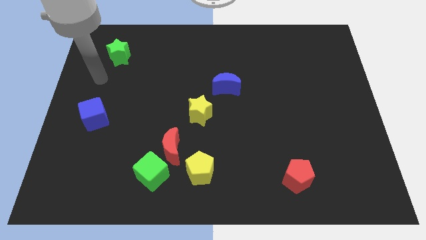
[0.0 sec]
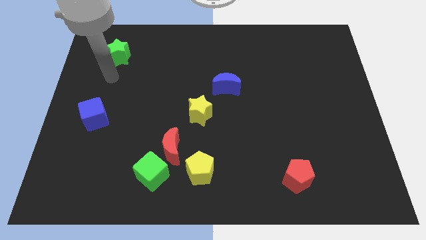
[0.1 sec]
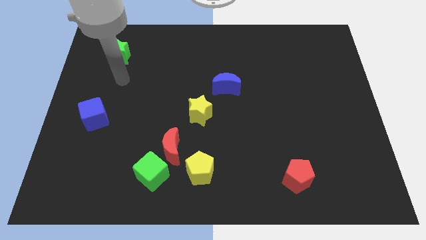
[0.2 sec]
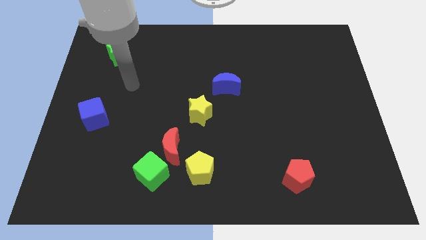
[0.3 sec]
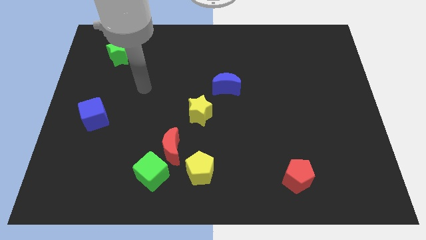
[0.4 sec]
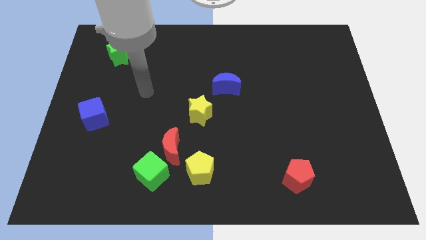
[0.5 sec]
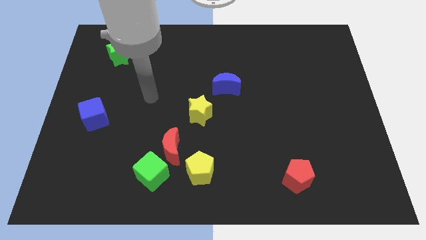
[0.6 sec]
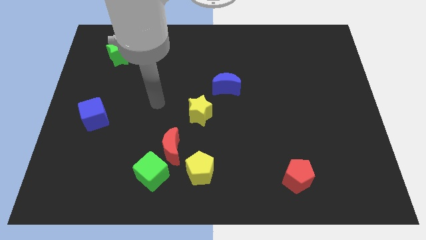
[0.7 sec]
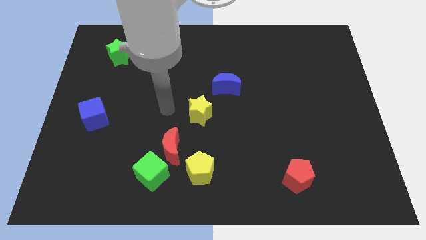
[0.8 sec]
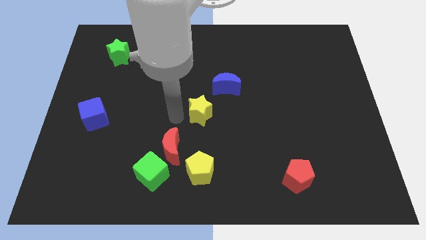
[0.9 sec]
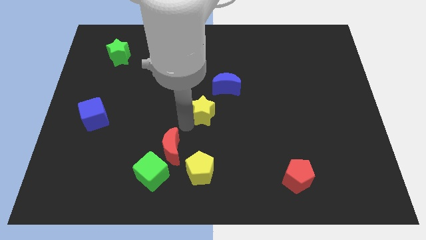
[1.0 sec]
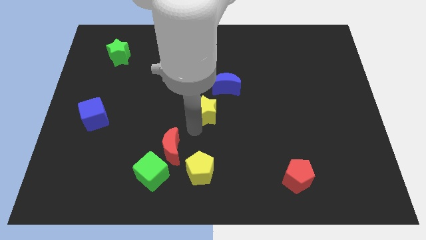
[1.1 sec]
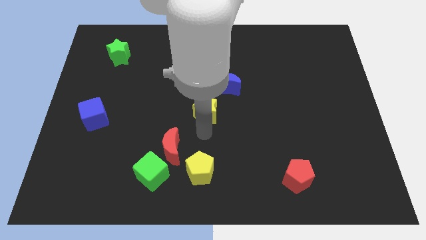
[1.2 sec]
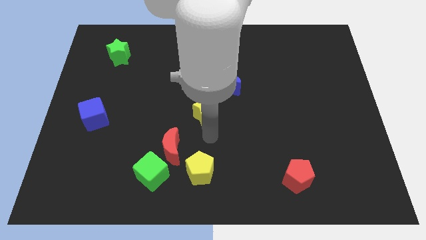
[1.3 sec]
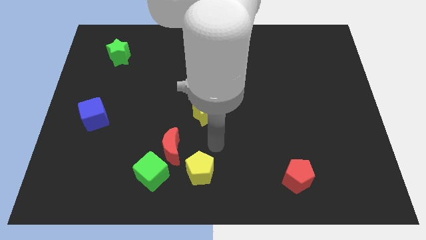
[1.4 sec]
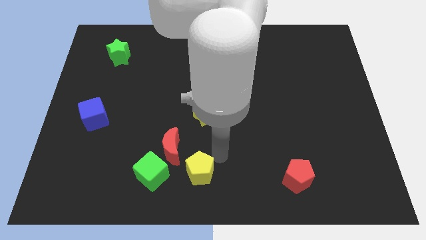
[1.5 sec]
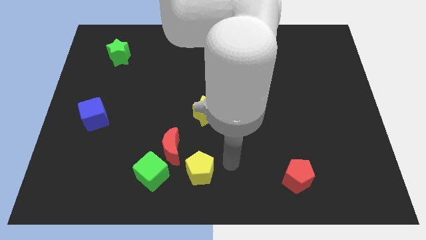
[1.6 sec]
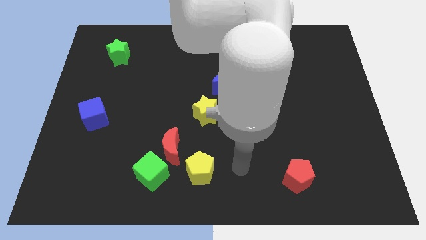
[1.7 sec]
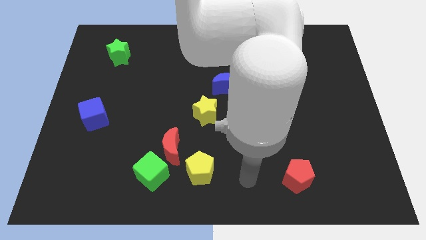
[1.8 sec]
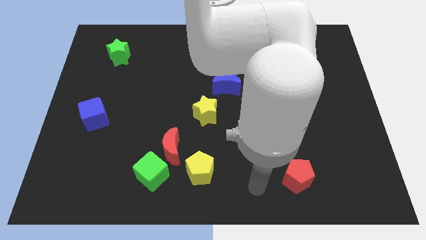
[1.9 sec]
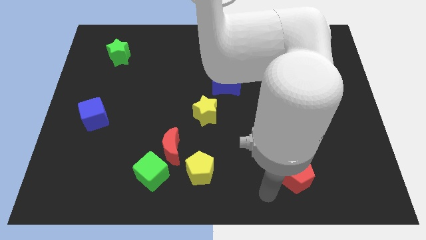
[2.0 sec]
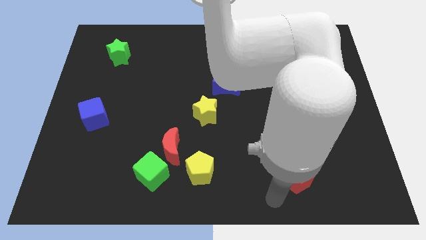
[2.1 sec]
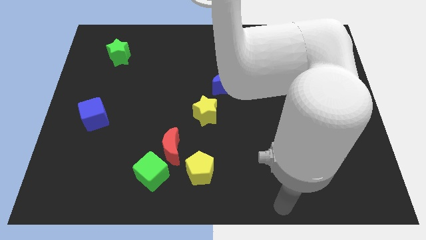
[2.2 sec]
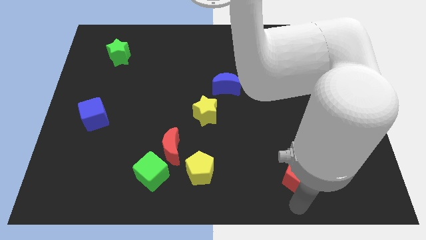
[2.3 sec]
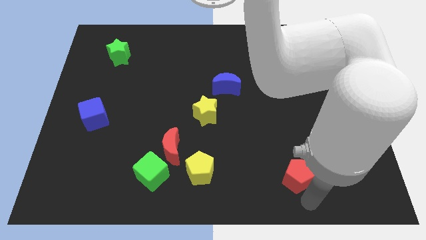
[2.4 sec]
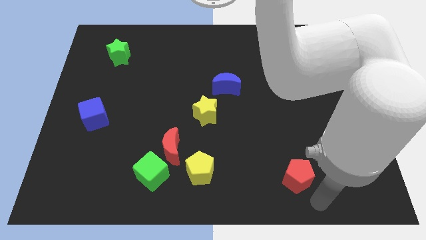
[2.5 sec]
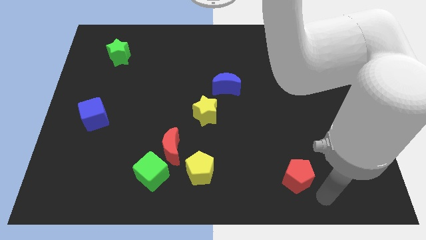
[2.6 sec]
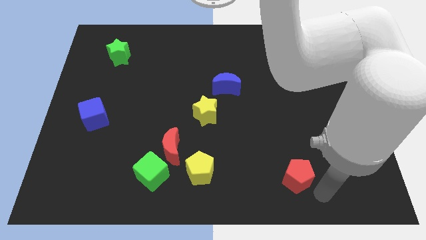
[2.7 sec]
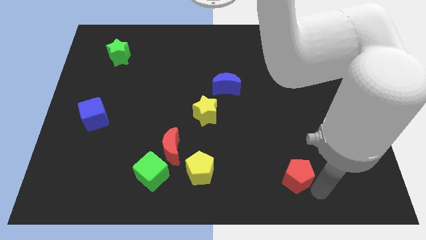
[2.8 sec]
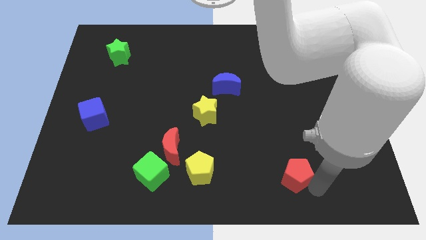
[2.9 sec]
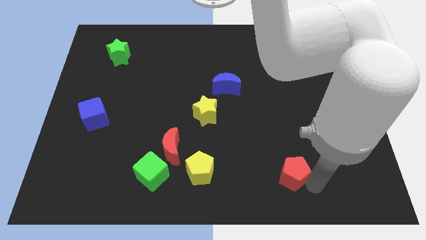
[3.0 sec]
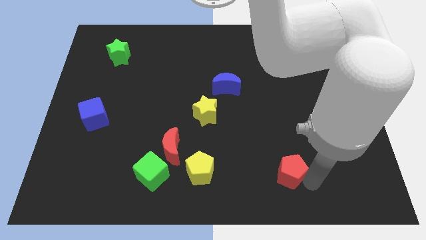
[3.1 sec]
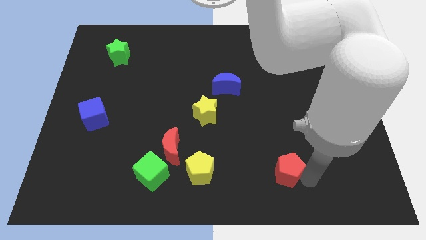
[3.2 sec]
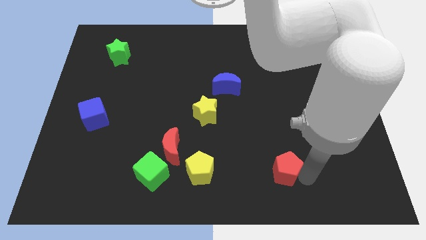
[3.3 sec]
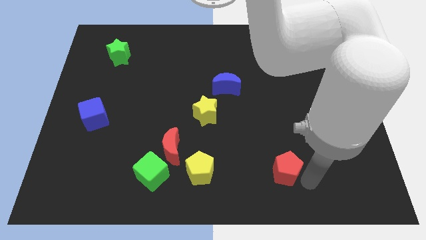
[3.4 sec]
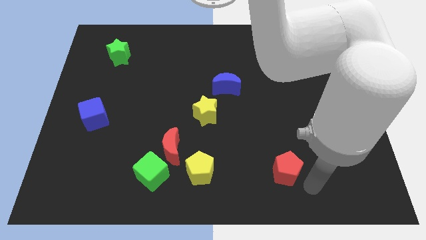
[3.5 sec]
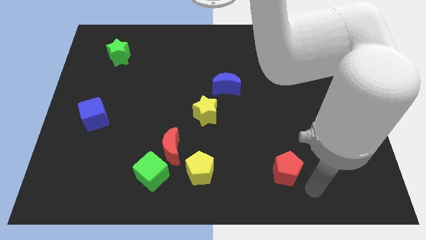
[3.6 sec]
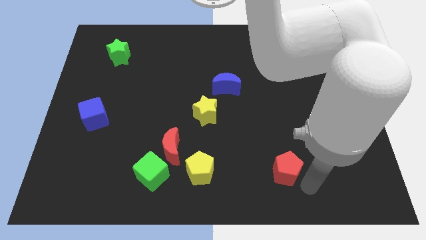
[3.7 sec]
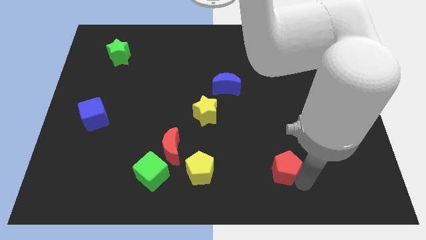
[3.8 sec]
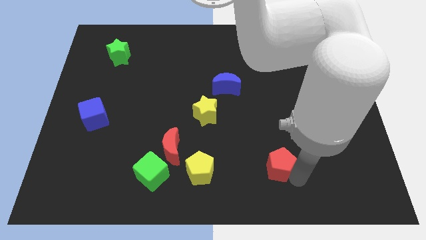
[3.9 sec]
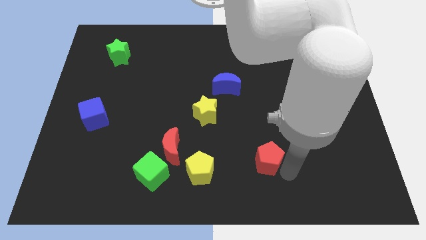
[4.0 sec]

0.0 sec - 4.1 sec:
push the red pentagon up and to the left diagonally a bit

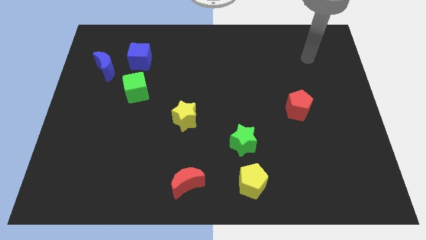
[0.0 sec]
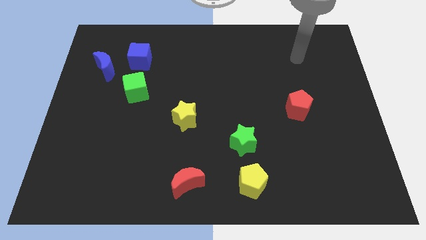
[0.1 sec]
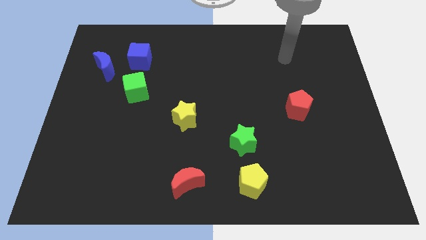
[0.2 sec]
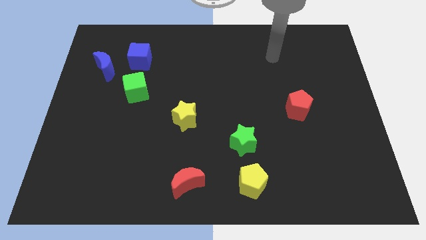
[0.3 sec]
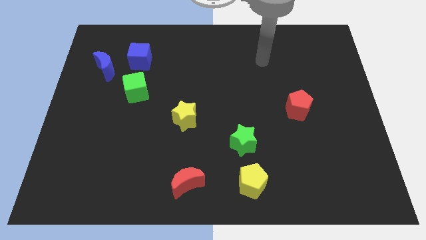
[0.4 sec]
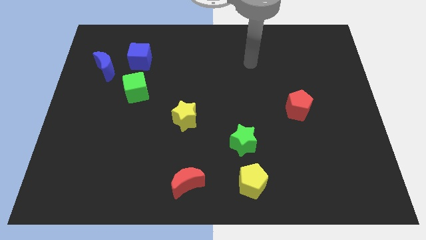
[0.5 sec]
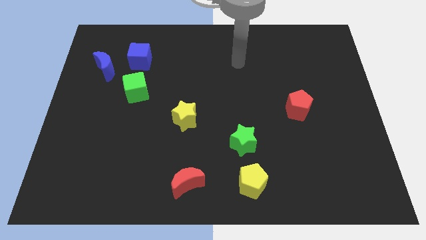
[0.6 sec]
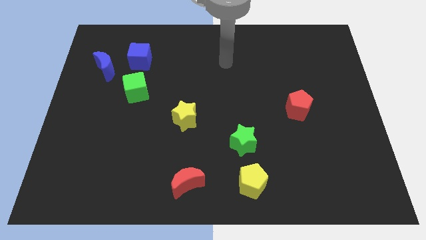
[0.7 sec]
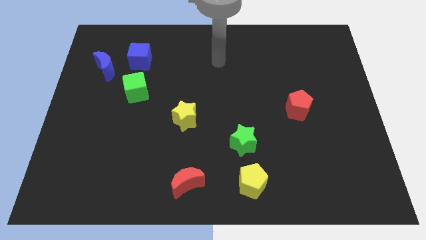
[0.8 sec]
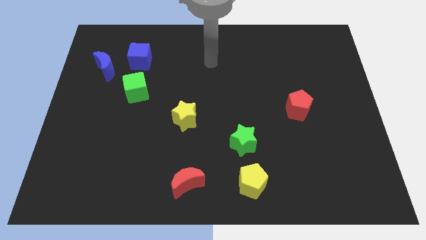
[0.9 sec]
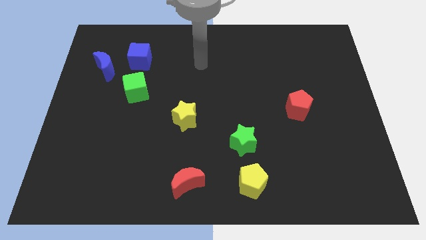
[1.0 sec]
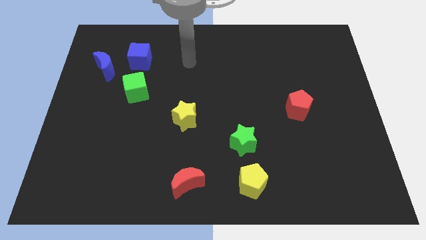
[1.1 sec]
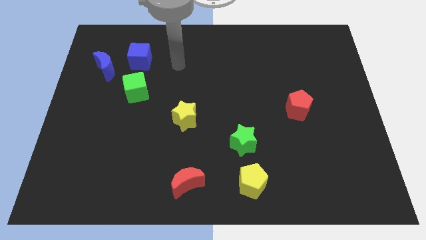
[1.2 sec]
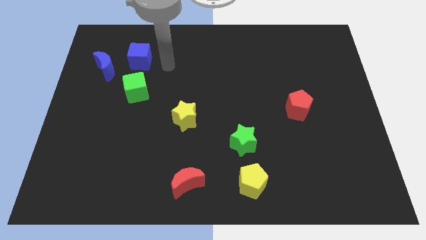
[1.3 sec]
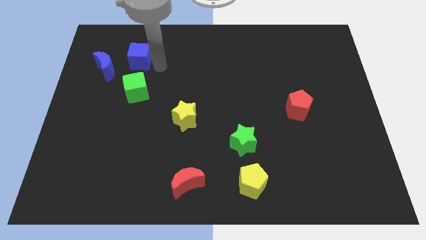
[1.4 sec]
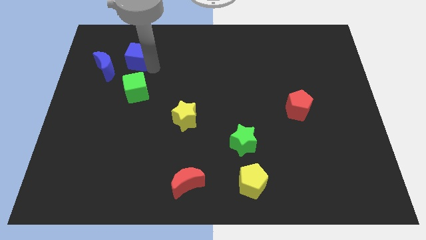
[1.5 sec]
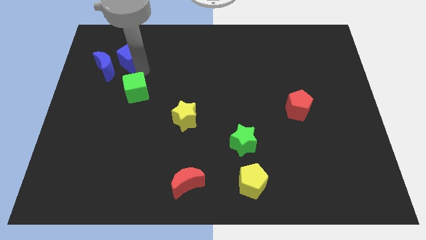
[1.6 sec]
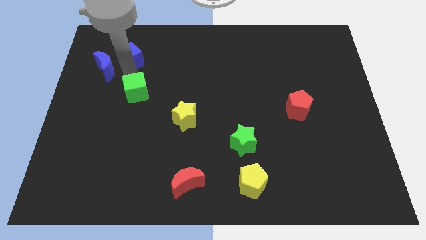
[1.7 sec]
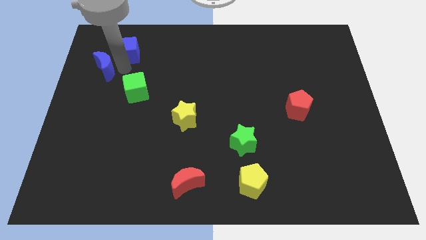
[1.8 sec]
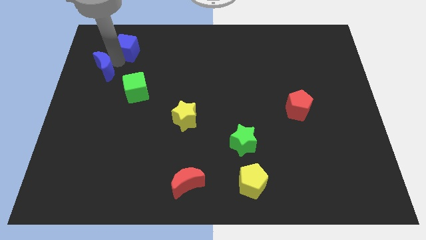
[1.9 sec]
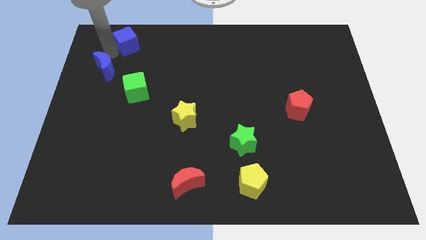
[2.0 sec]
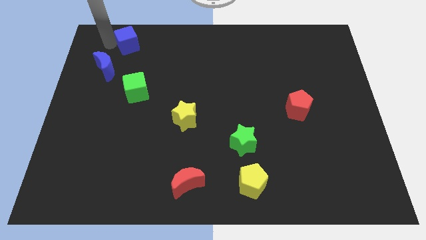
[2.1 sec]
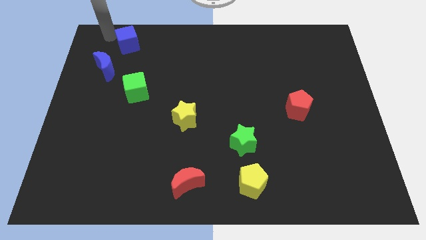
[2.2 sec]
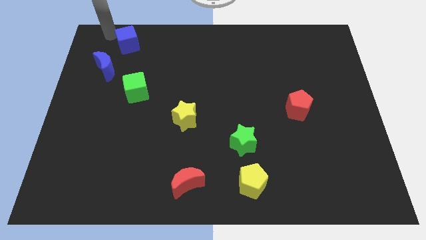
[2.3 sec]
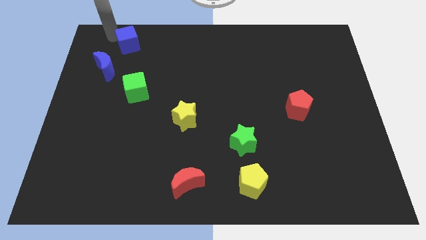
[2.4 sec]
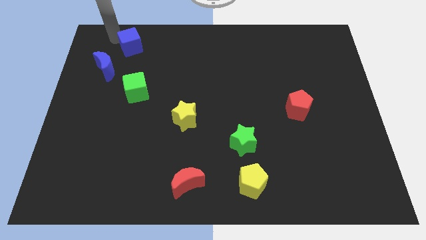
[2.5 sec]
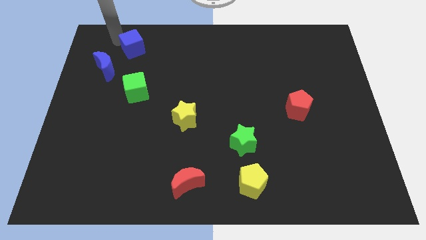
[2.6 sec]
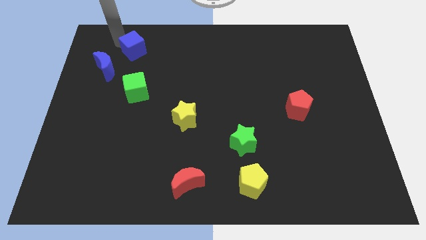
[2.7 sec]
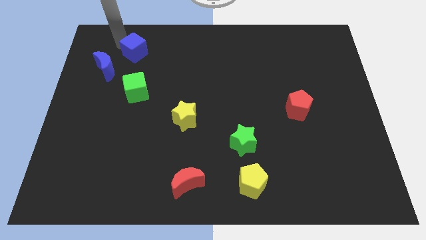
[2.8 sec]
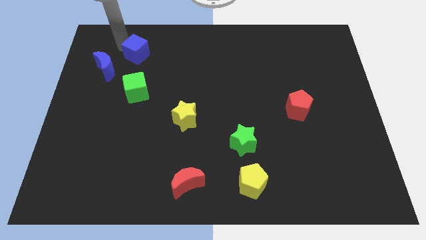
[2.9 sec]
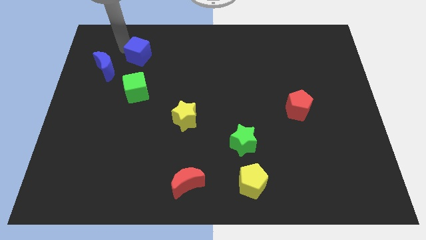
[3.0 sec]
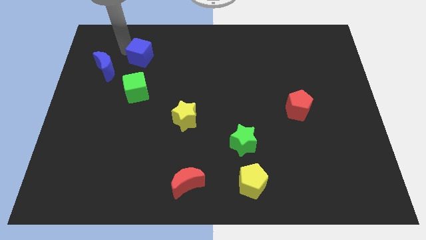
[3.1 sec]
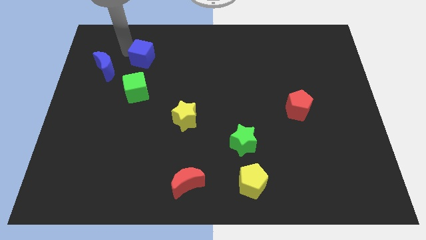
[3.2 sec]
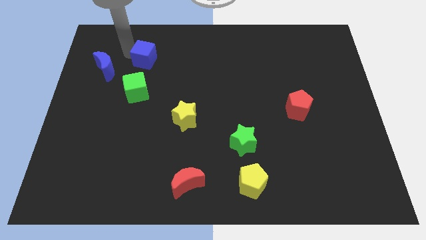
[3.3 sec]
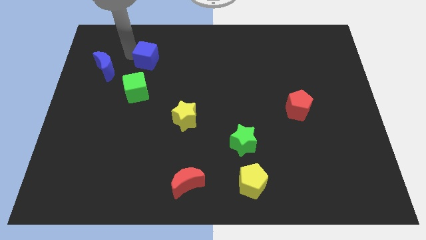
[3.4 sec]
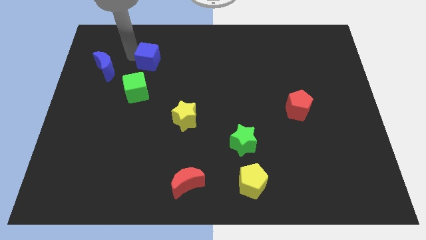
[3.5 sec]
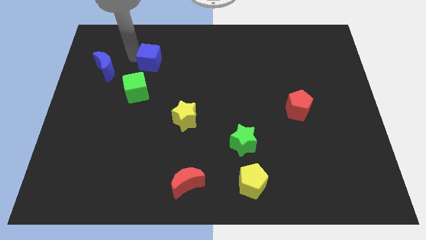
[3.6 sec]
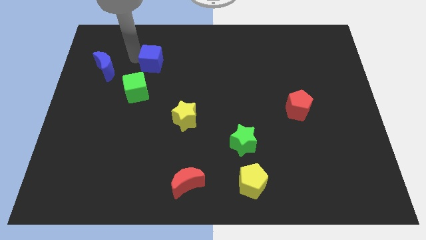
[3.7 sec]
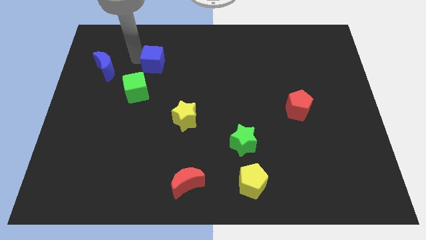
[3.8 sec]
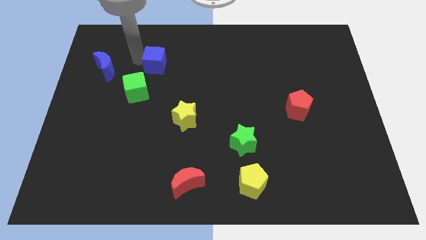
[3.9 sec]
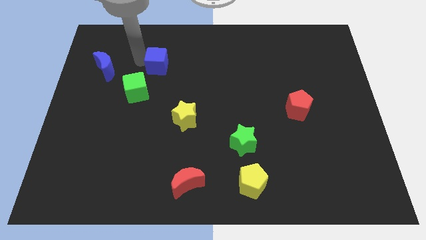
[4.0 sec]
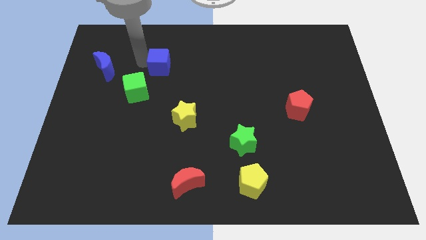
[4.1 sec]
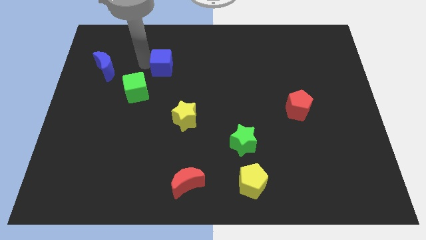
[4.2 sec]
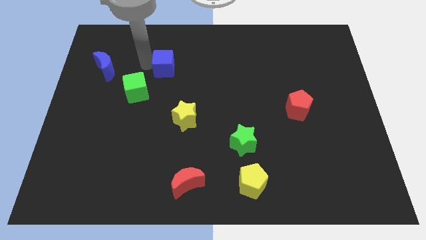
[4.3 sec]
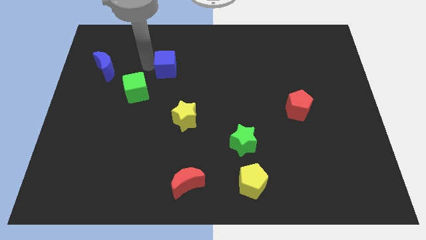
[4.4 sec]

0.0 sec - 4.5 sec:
slide the blue cube slightly right
